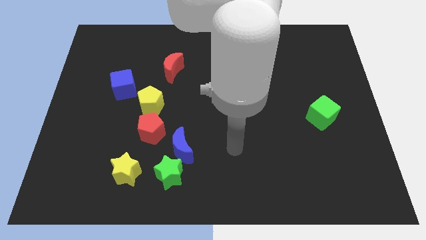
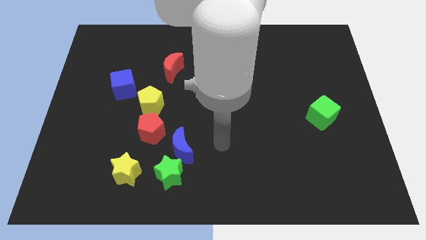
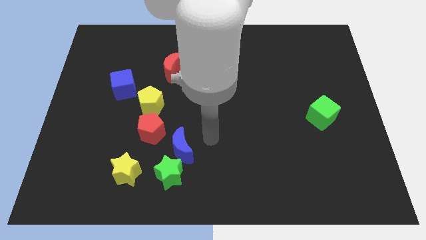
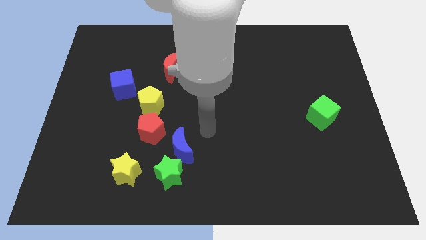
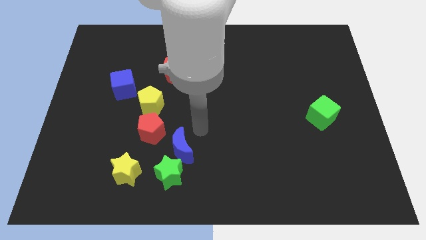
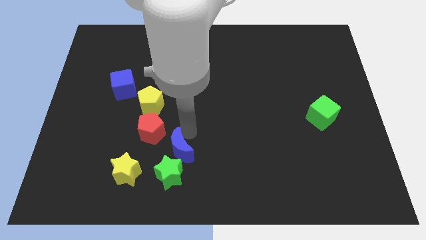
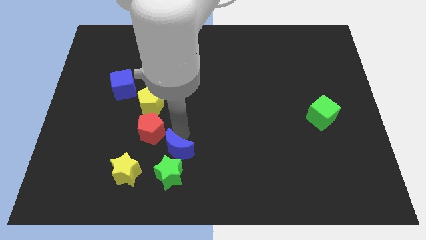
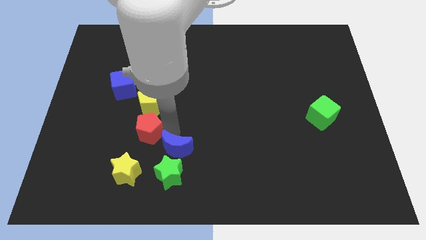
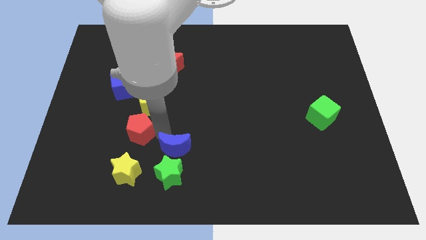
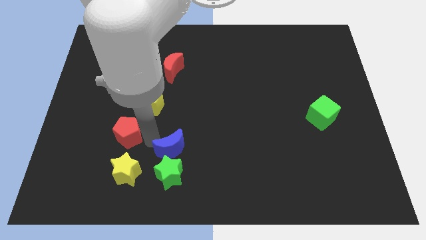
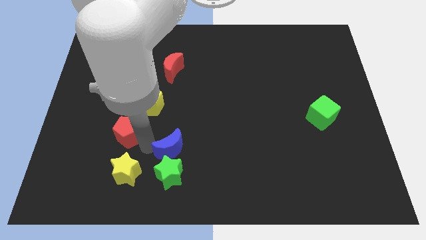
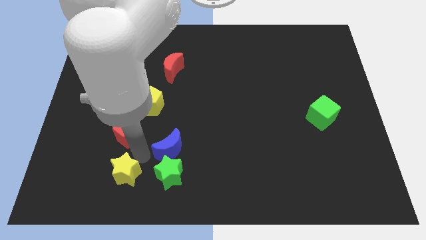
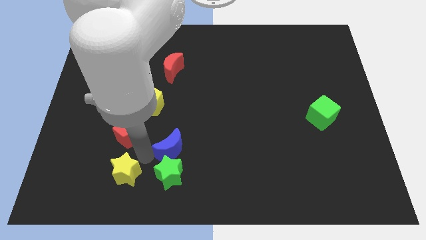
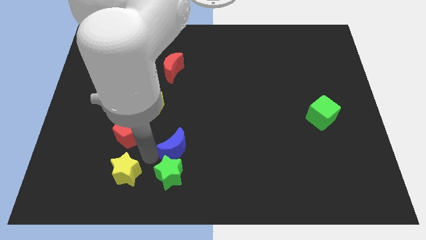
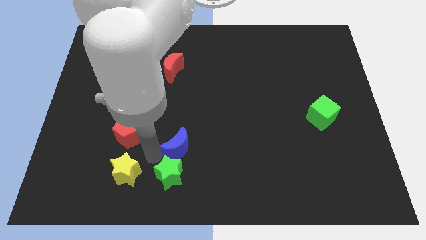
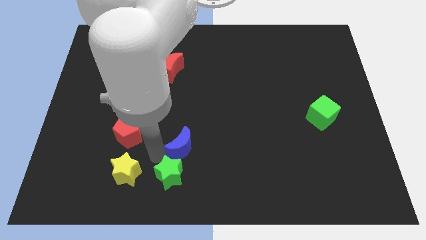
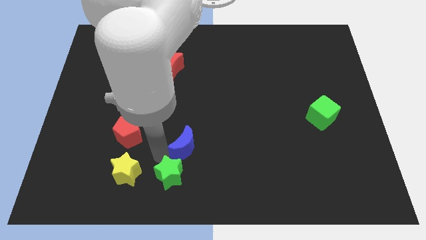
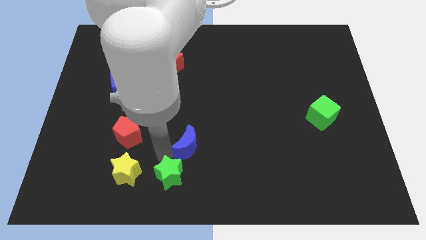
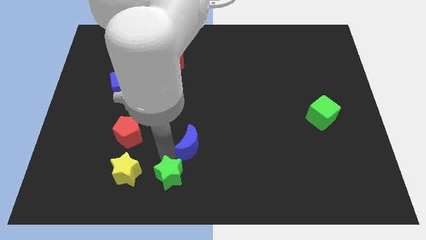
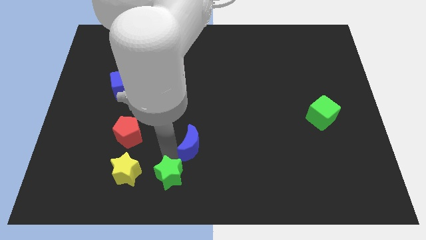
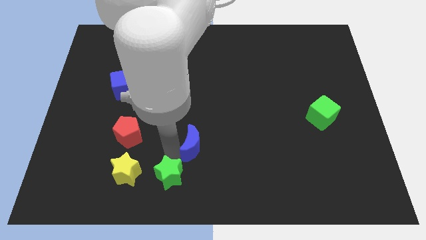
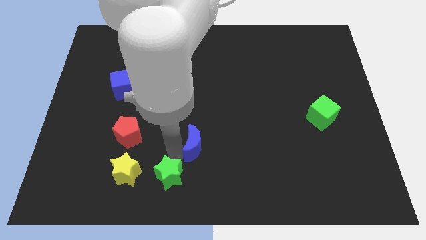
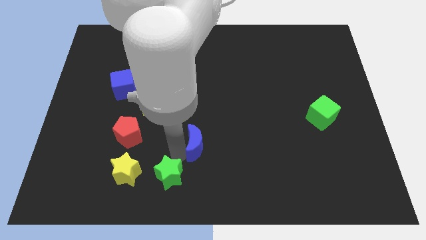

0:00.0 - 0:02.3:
separate the blue moon from the green star and red pentagon

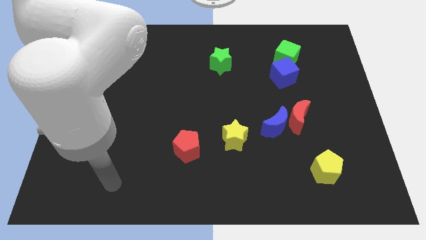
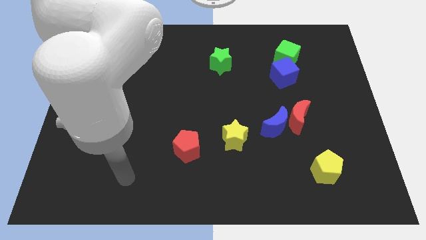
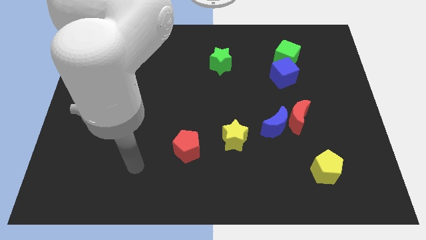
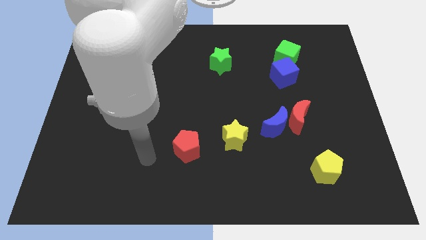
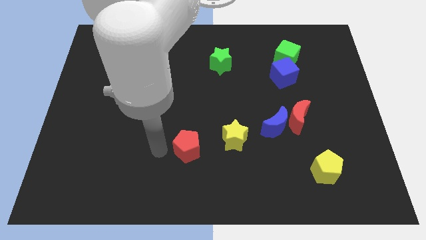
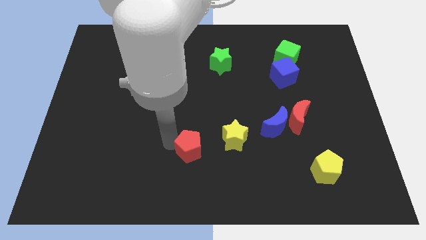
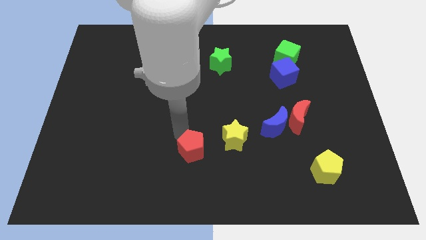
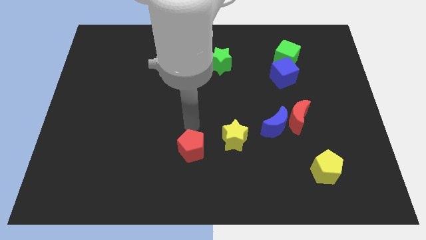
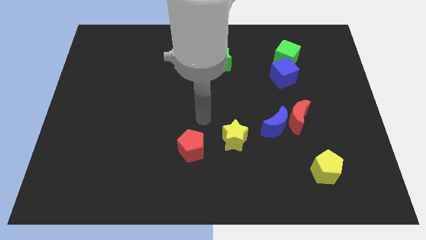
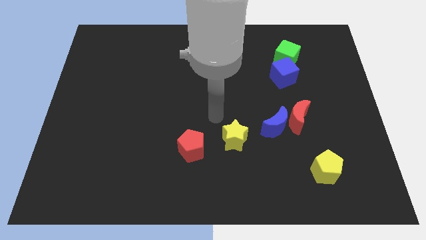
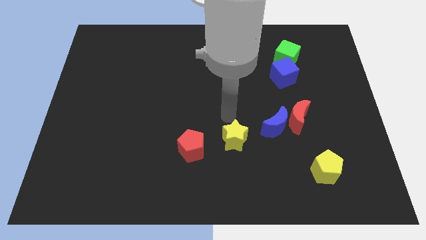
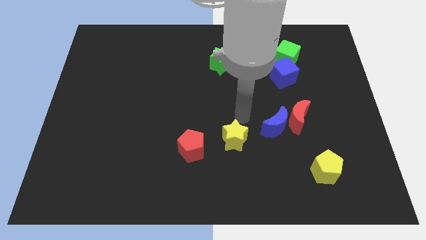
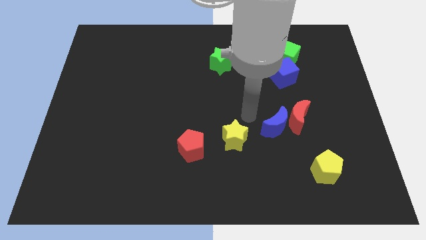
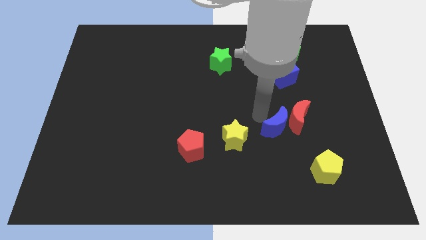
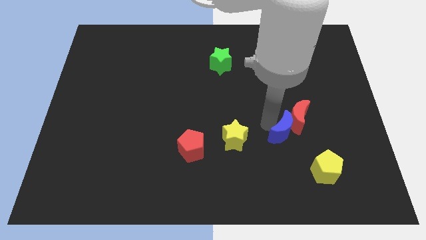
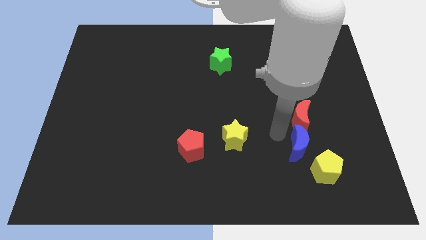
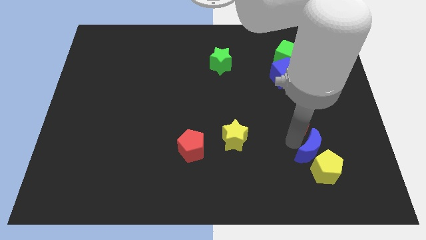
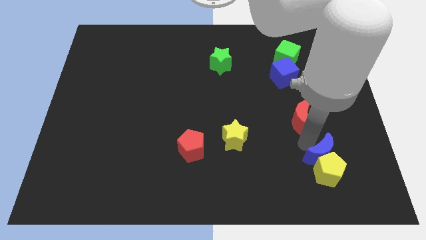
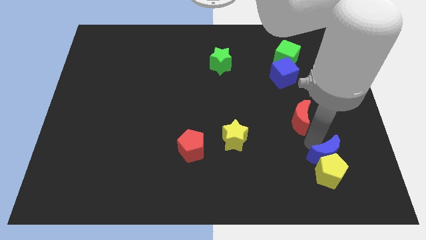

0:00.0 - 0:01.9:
pull the red moon apart from the blue moon

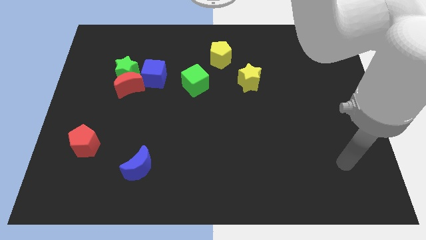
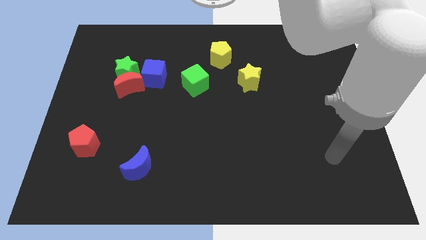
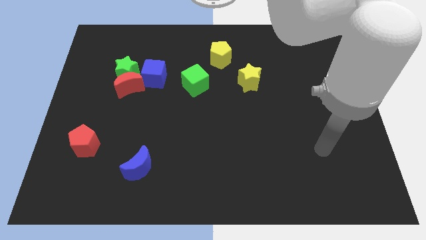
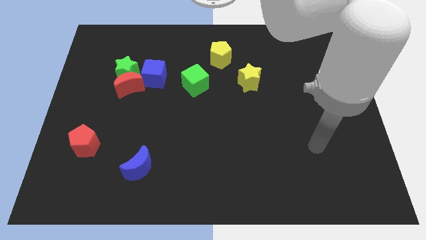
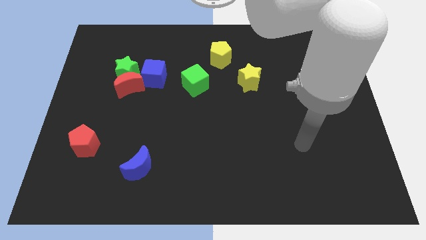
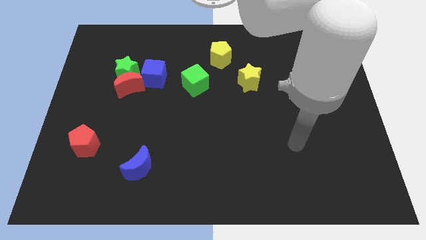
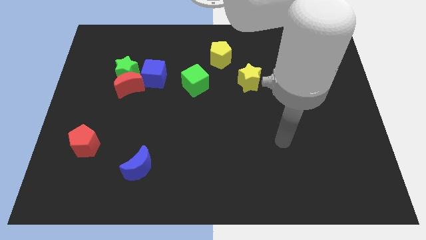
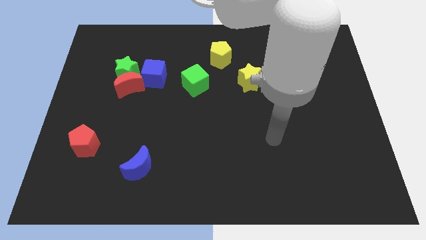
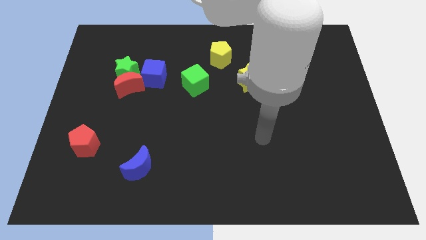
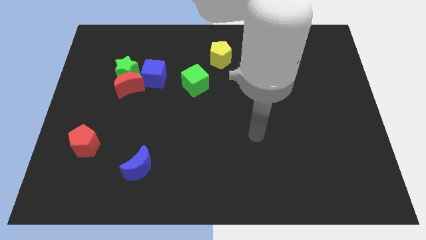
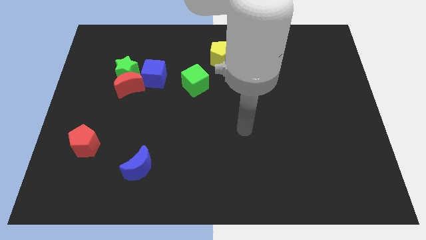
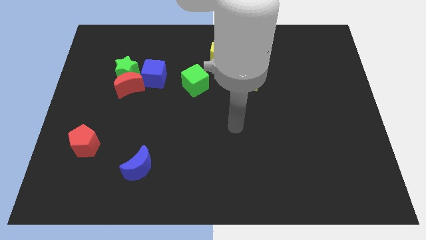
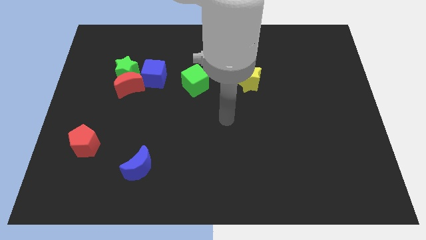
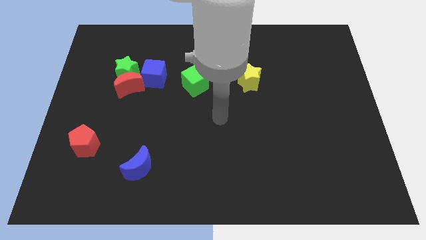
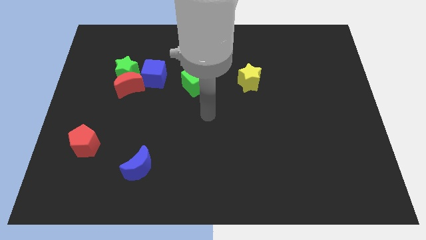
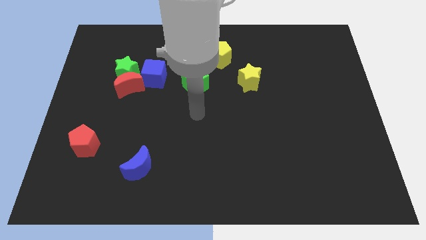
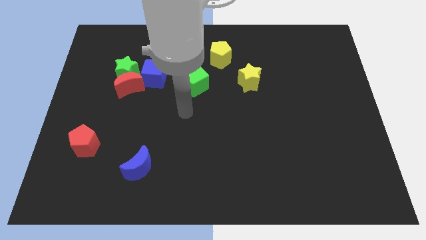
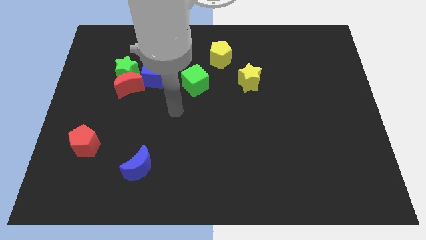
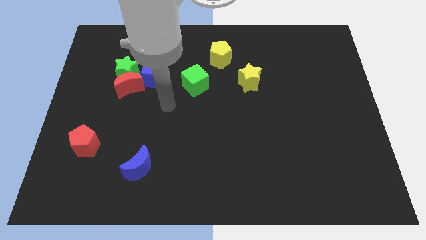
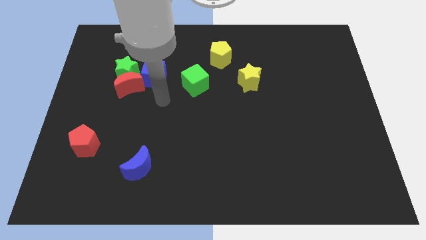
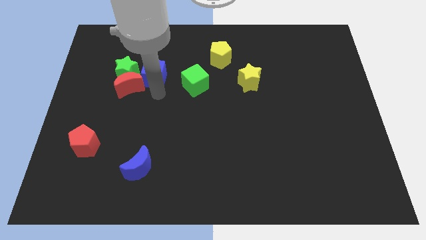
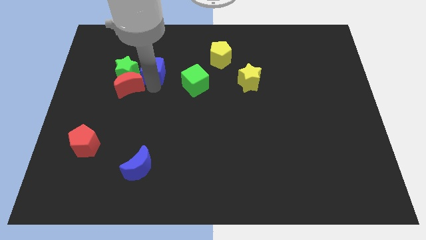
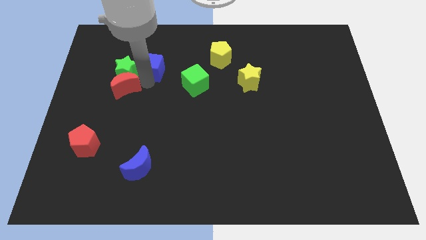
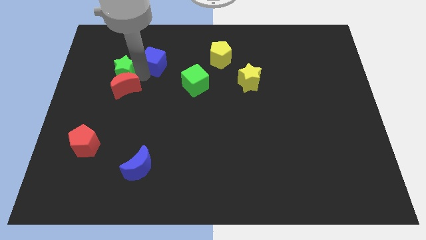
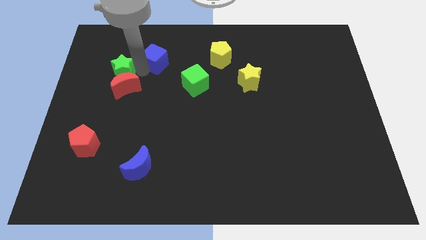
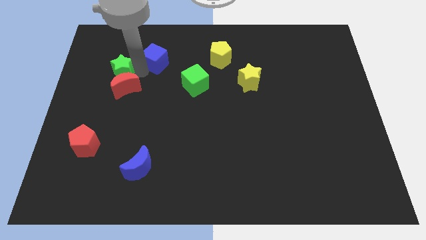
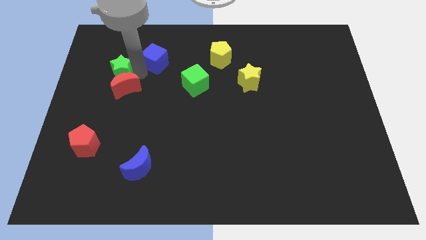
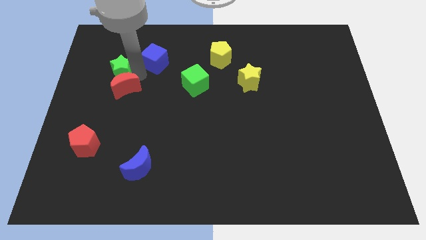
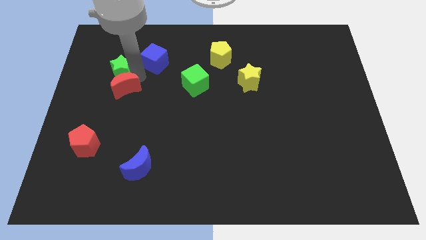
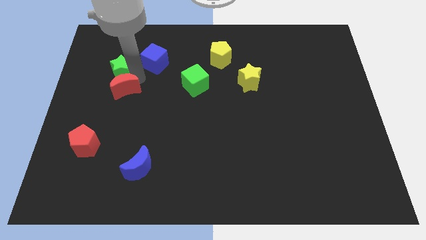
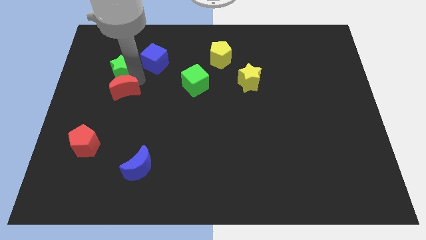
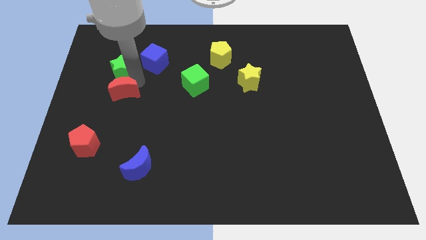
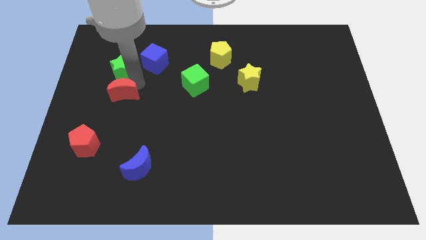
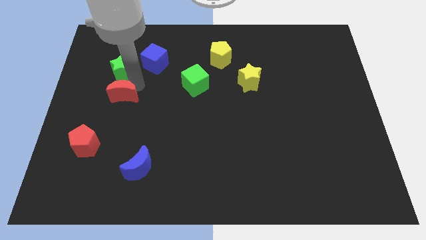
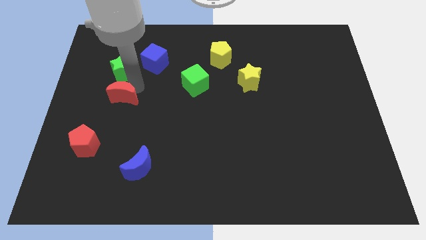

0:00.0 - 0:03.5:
separate the red moon from the green star and blue cube

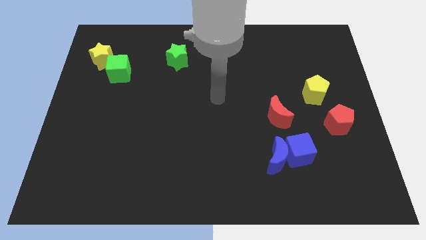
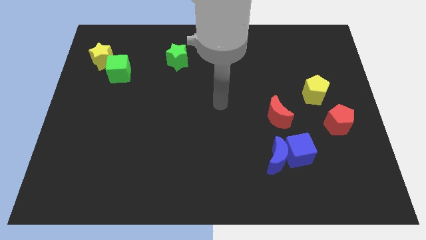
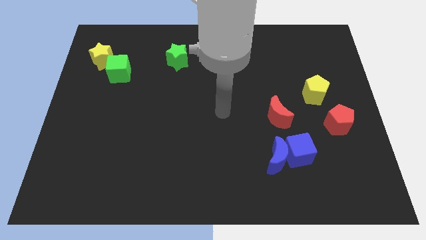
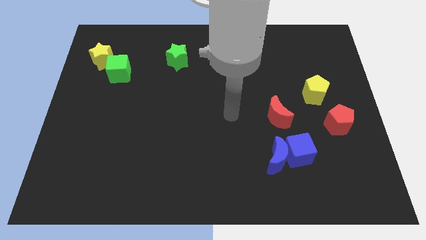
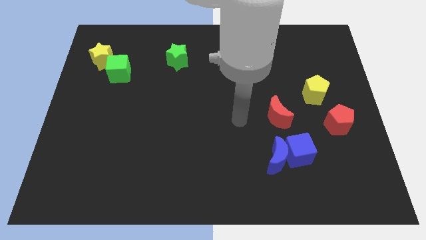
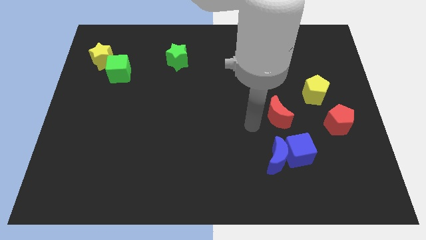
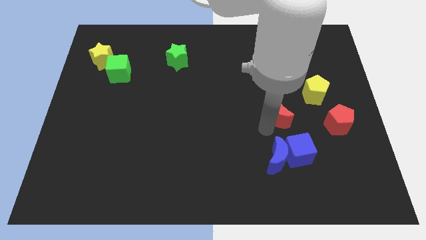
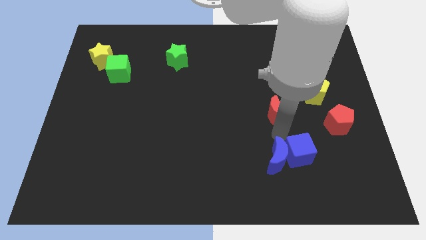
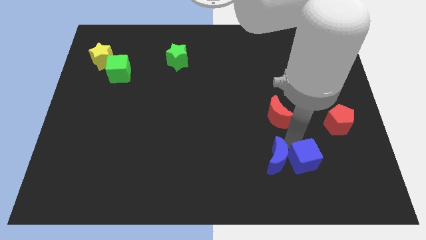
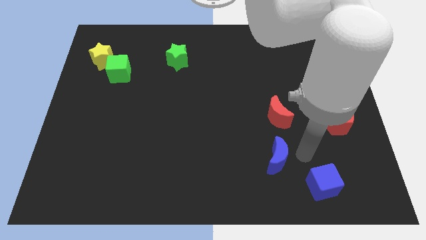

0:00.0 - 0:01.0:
separate the blue moon from the blue cube

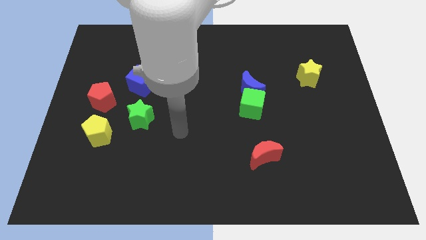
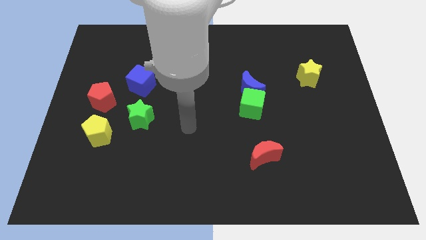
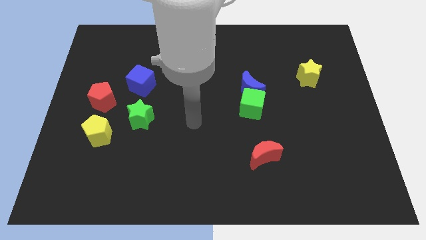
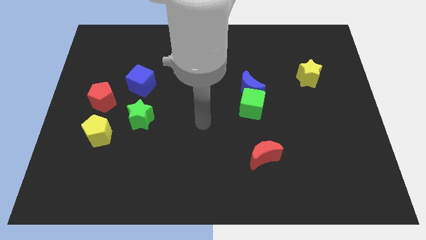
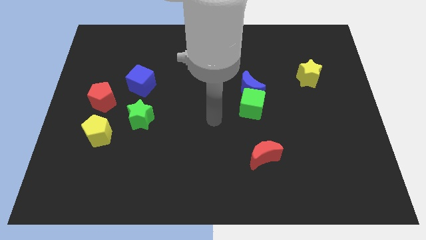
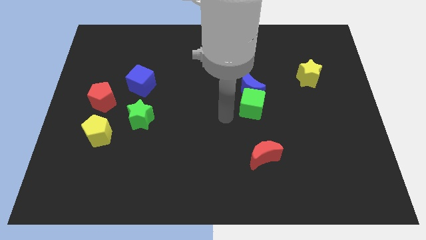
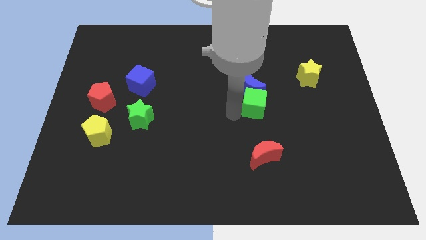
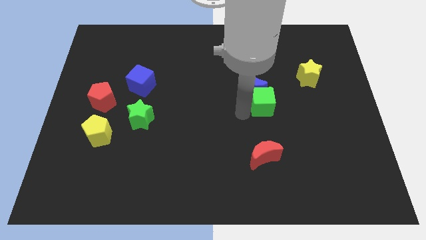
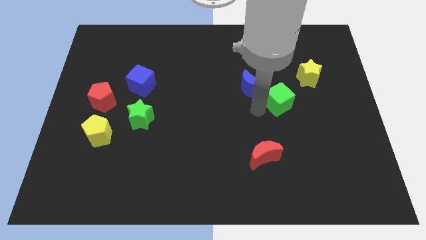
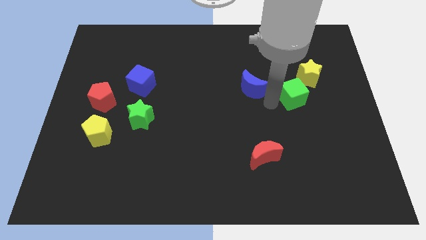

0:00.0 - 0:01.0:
pull the blue moon apart from the green cube
